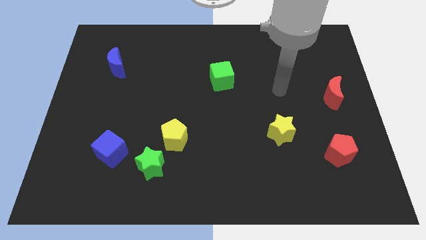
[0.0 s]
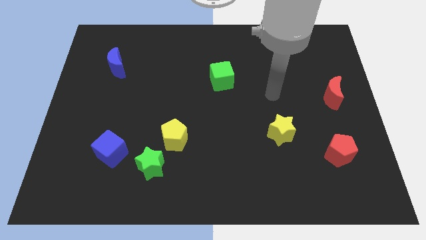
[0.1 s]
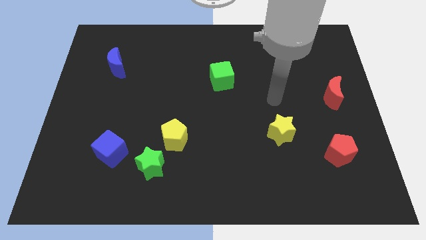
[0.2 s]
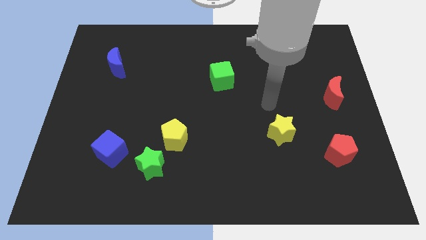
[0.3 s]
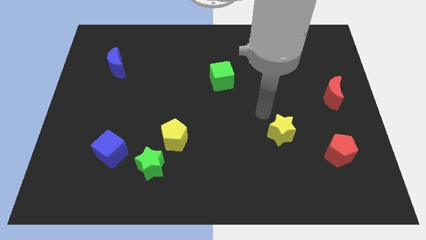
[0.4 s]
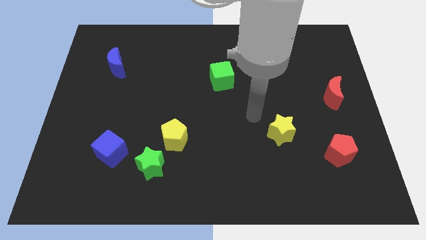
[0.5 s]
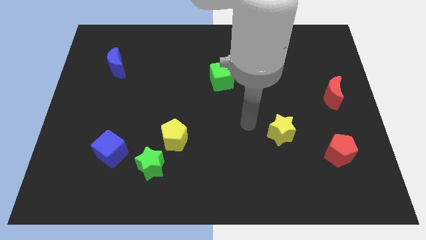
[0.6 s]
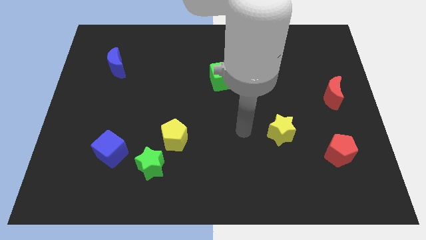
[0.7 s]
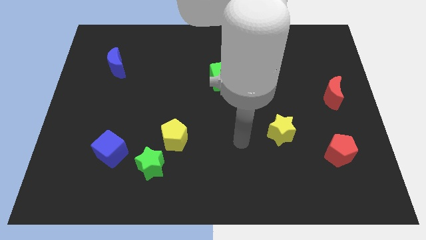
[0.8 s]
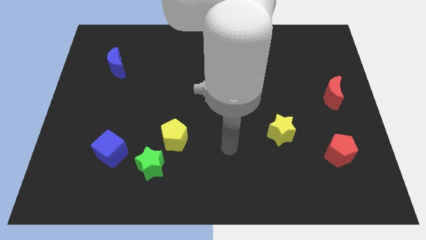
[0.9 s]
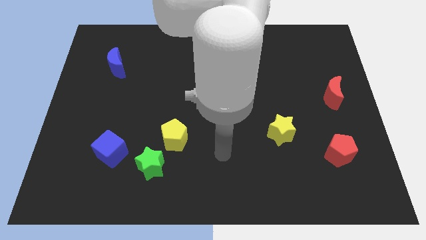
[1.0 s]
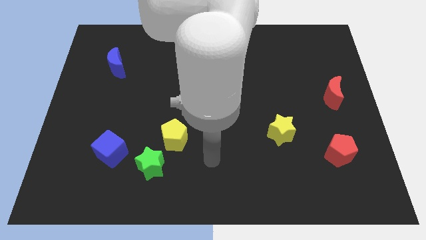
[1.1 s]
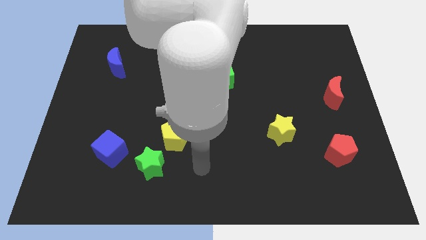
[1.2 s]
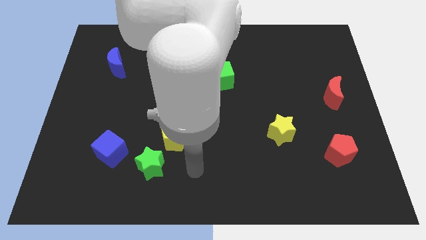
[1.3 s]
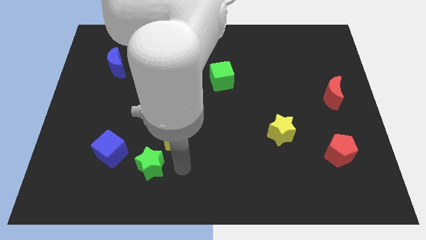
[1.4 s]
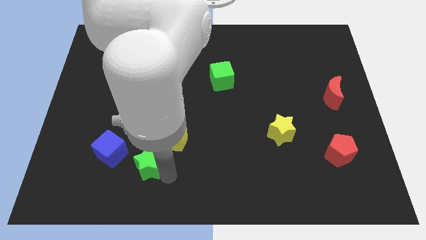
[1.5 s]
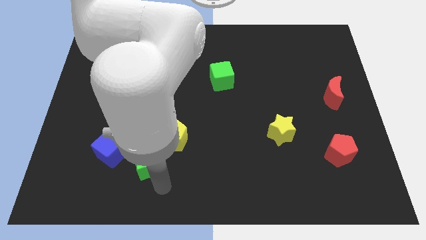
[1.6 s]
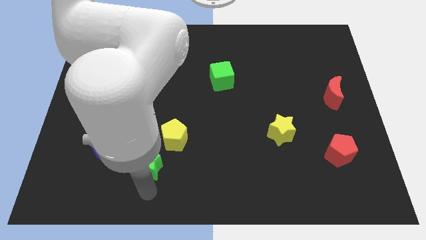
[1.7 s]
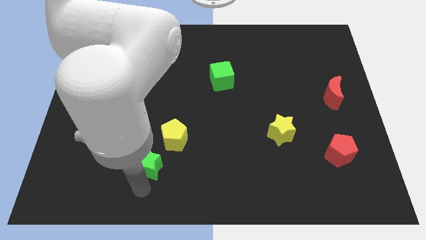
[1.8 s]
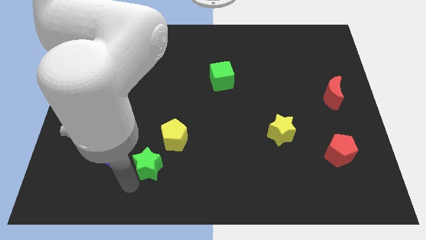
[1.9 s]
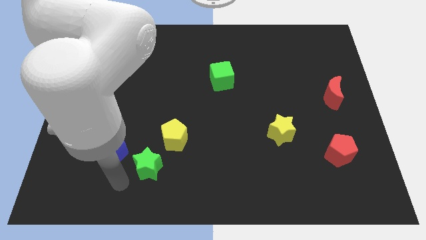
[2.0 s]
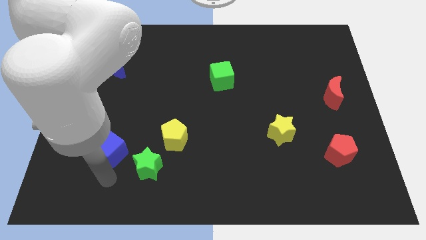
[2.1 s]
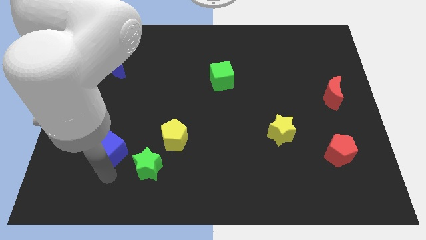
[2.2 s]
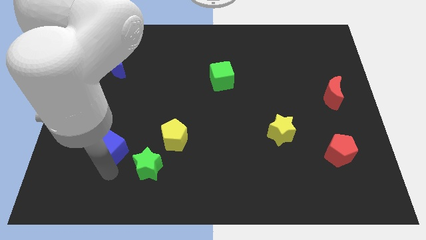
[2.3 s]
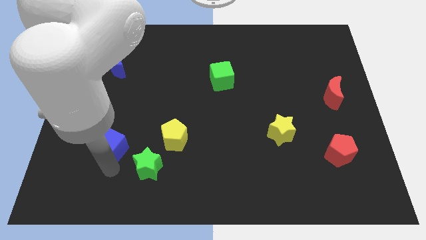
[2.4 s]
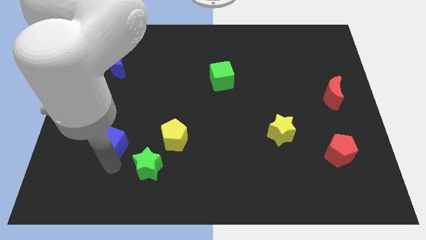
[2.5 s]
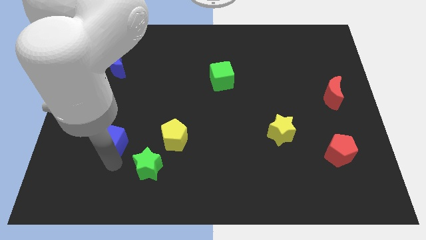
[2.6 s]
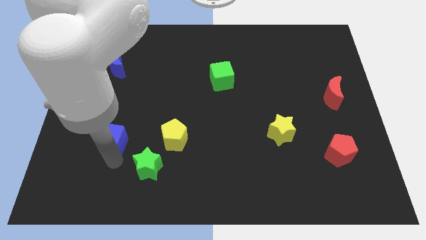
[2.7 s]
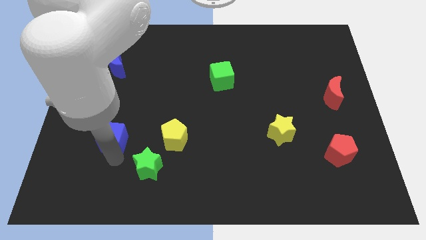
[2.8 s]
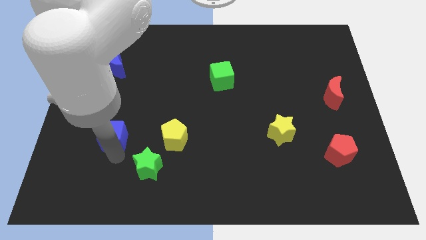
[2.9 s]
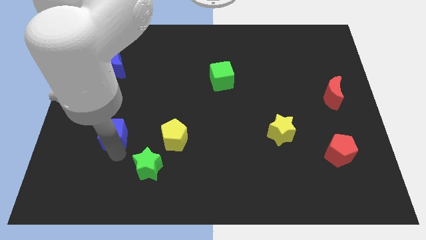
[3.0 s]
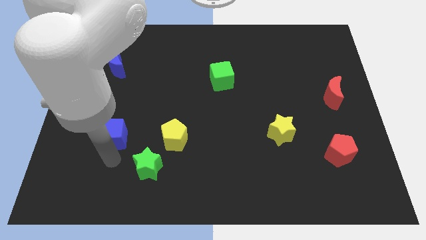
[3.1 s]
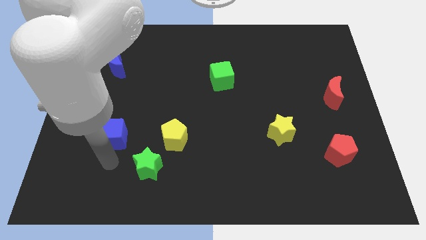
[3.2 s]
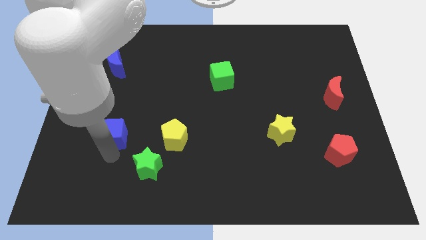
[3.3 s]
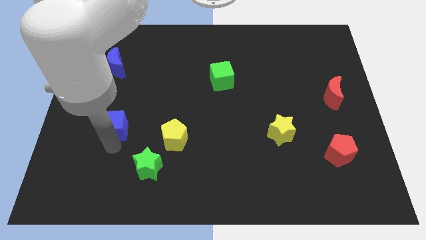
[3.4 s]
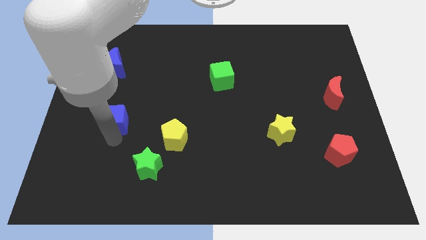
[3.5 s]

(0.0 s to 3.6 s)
slightly move the blue cube upwards

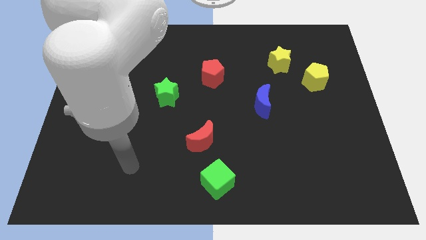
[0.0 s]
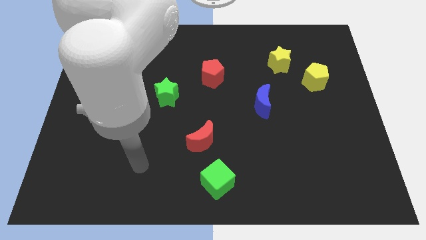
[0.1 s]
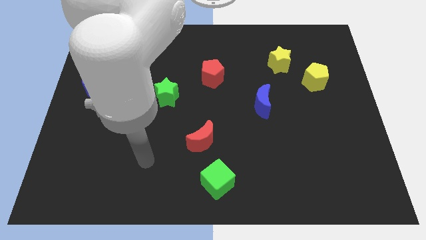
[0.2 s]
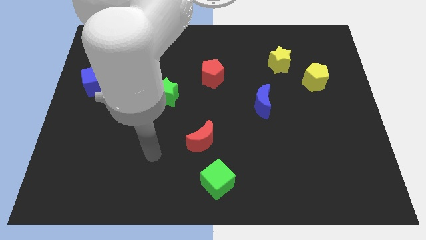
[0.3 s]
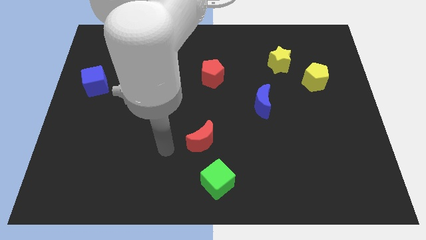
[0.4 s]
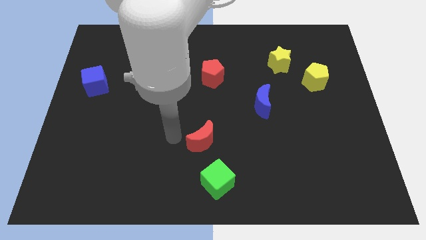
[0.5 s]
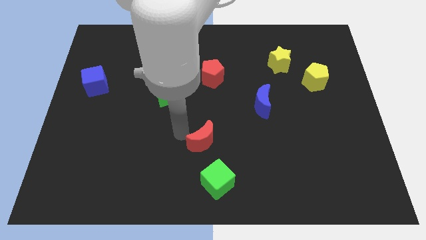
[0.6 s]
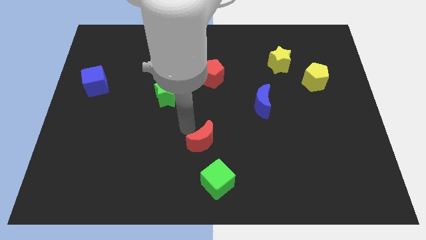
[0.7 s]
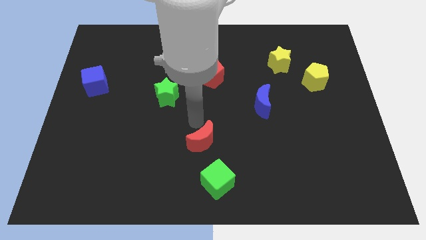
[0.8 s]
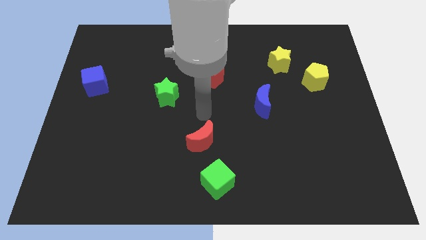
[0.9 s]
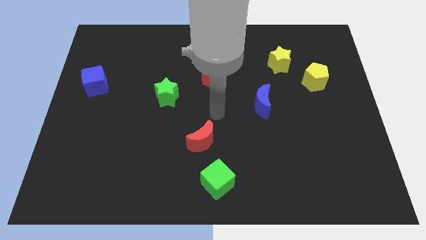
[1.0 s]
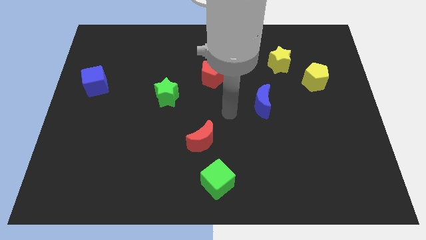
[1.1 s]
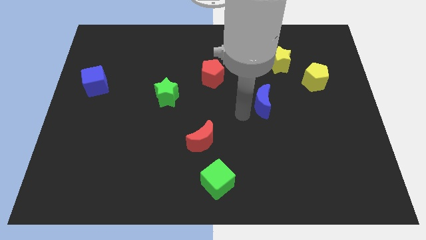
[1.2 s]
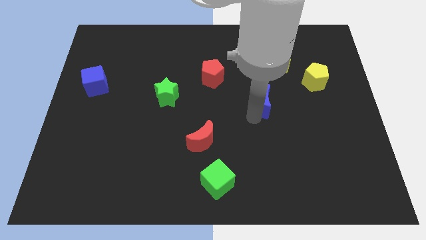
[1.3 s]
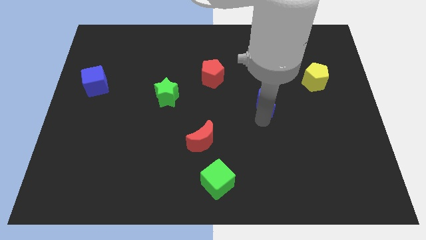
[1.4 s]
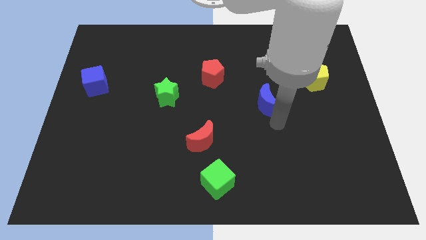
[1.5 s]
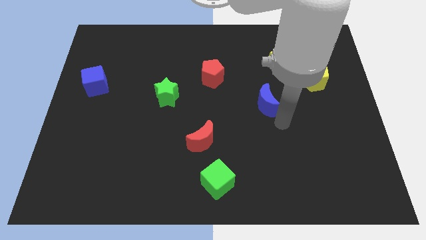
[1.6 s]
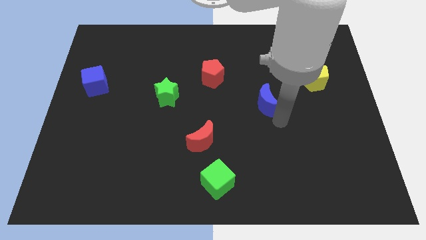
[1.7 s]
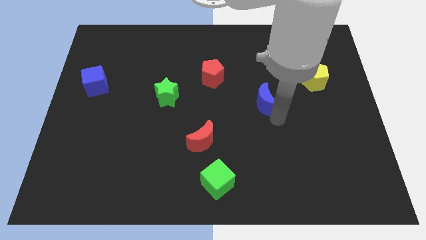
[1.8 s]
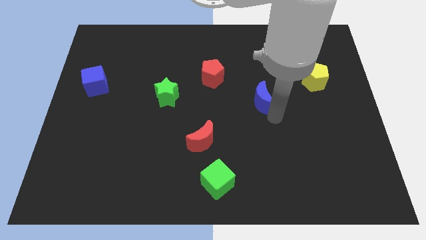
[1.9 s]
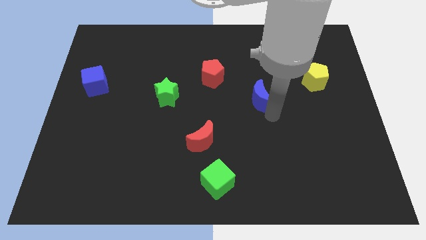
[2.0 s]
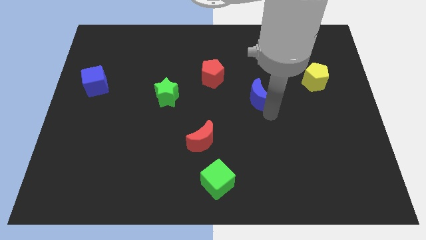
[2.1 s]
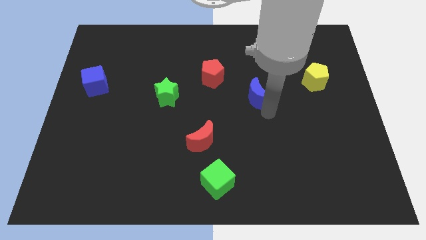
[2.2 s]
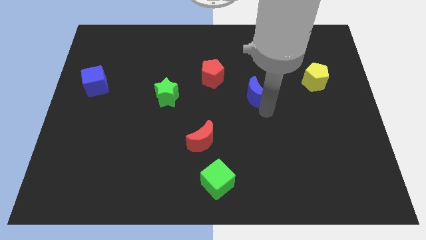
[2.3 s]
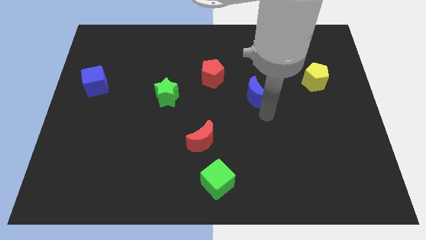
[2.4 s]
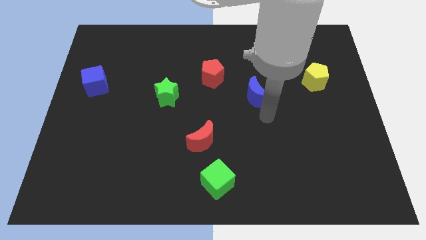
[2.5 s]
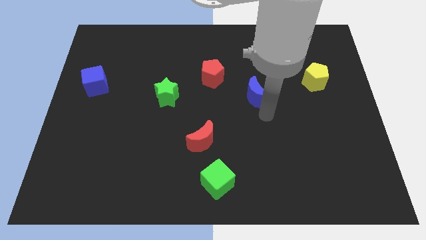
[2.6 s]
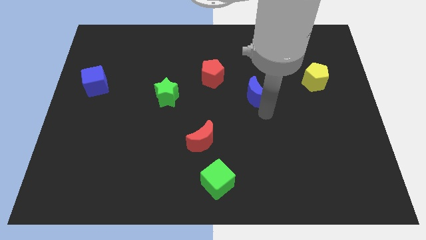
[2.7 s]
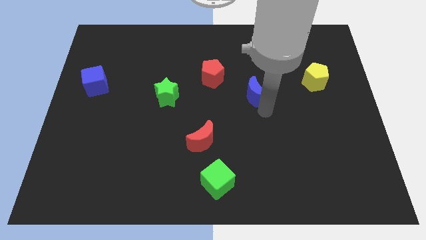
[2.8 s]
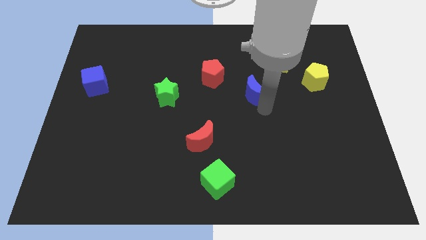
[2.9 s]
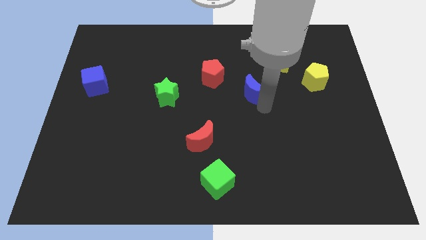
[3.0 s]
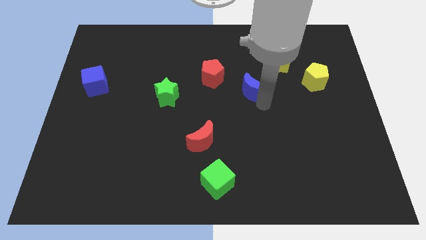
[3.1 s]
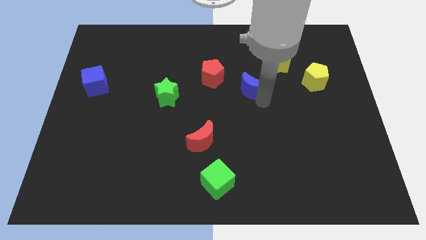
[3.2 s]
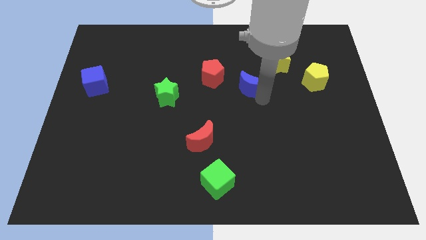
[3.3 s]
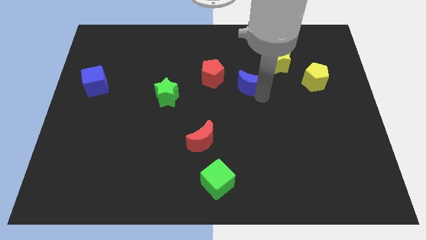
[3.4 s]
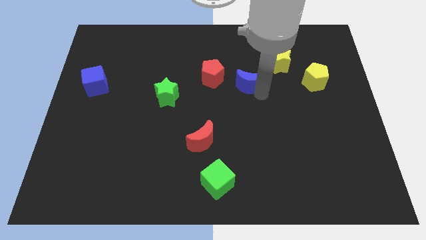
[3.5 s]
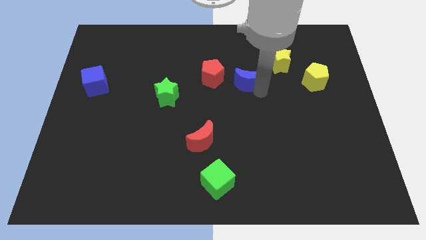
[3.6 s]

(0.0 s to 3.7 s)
slightly push the blue moon upwards and left diagonally

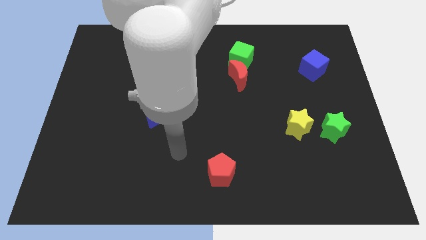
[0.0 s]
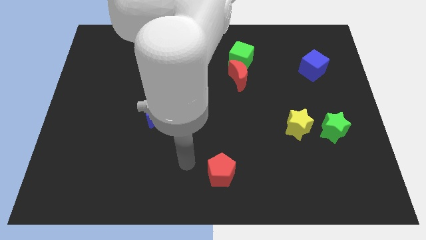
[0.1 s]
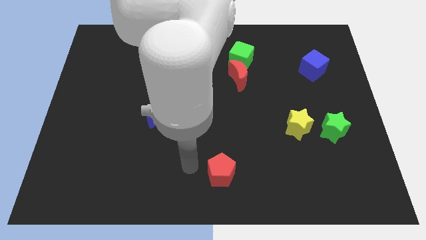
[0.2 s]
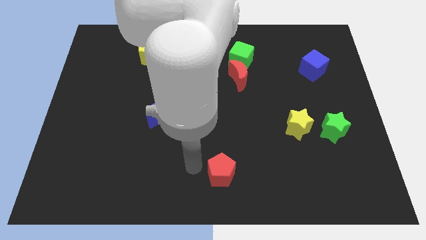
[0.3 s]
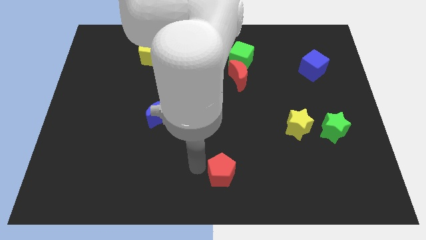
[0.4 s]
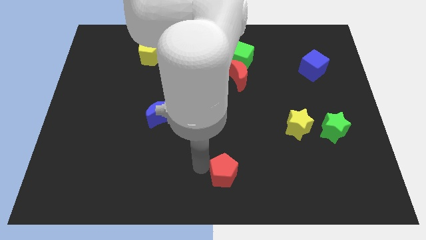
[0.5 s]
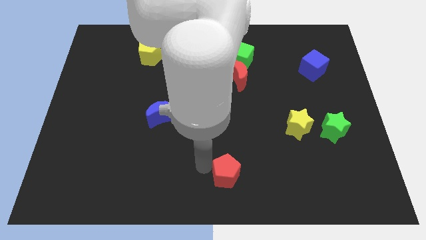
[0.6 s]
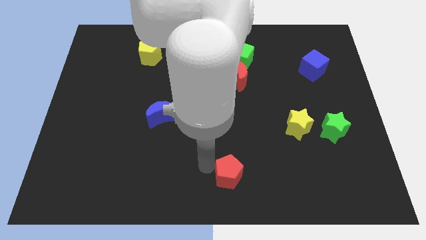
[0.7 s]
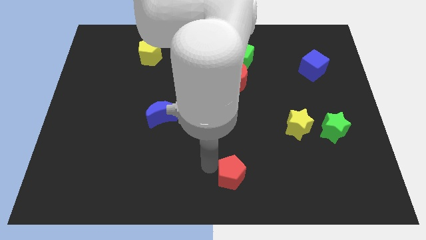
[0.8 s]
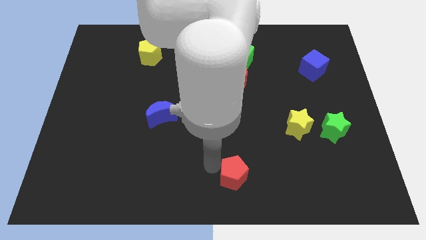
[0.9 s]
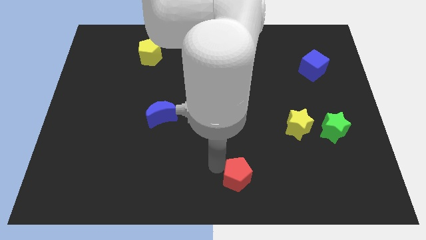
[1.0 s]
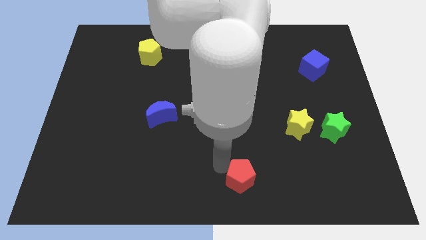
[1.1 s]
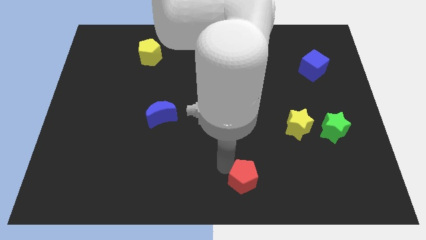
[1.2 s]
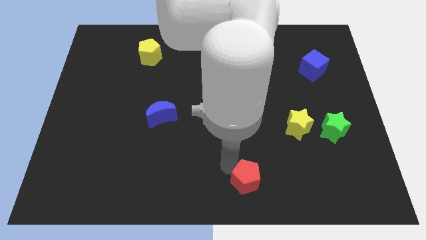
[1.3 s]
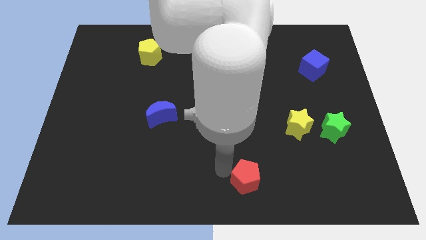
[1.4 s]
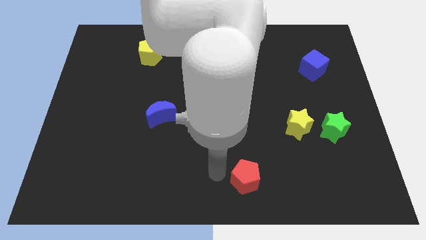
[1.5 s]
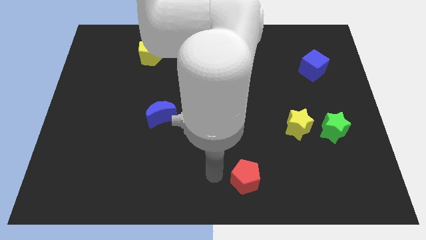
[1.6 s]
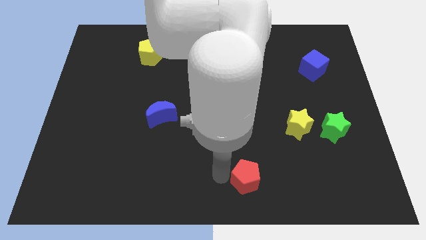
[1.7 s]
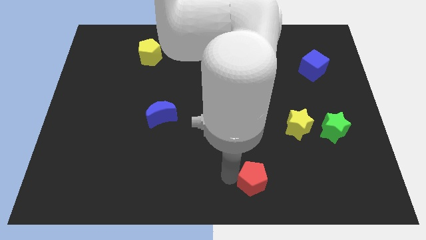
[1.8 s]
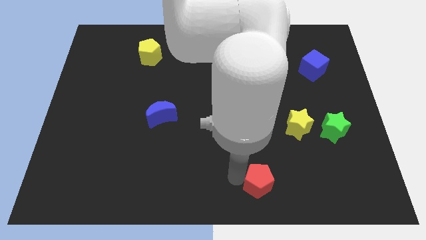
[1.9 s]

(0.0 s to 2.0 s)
slightly push the red pentagon right
